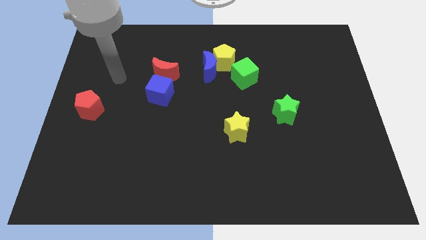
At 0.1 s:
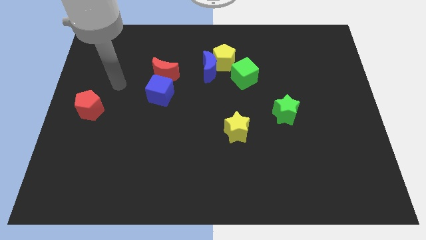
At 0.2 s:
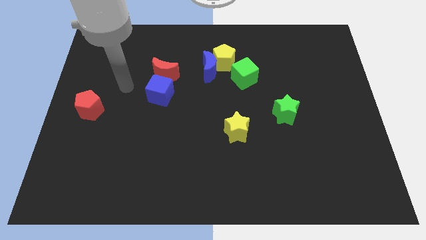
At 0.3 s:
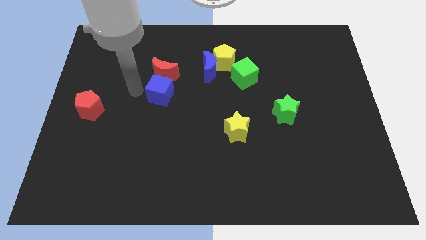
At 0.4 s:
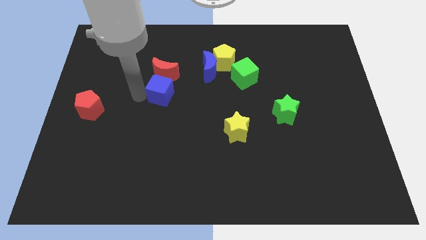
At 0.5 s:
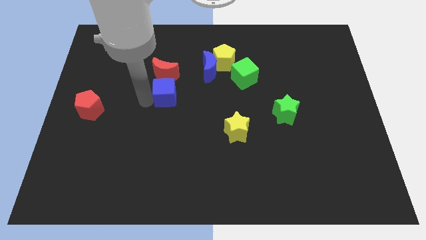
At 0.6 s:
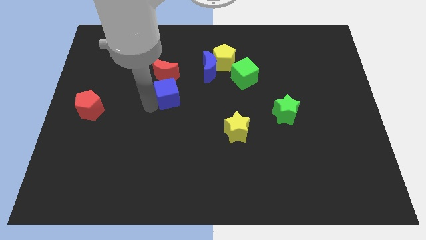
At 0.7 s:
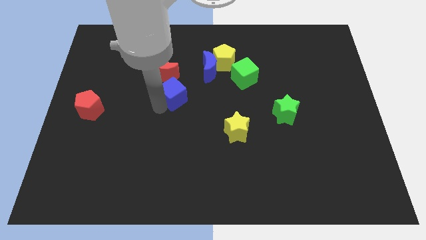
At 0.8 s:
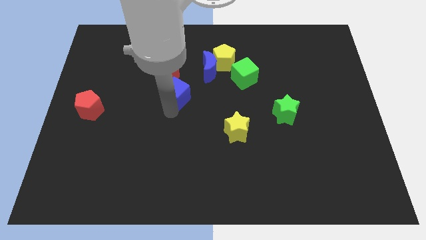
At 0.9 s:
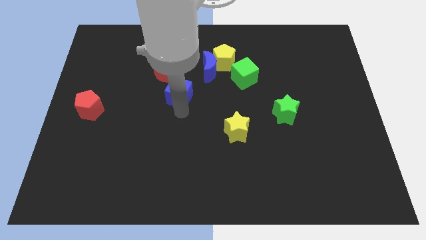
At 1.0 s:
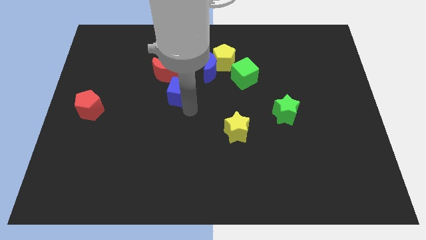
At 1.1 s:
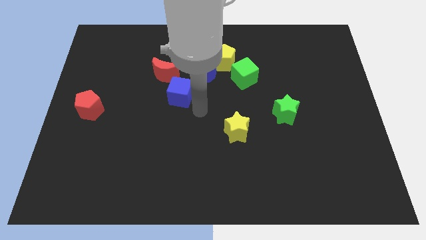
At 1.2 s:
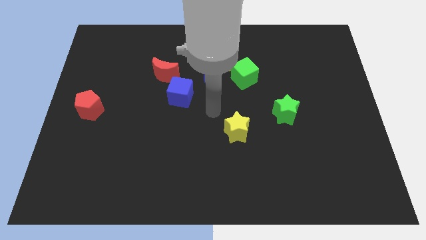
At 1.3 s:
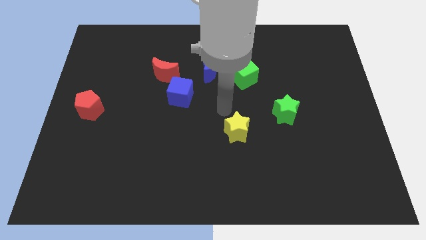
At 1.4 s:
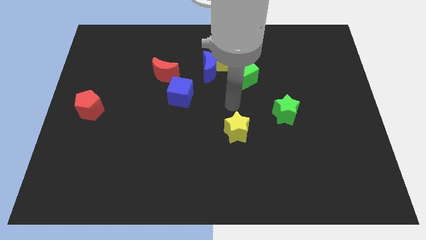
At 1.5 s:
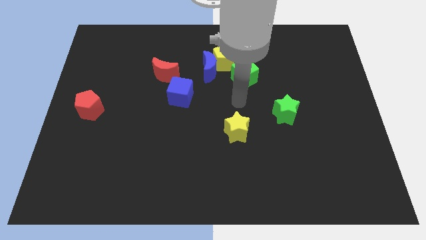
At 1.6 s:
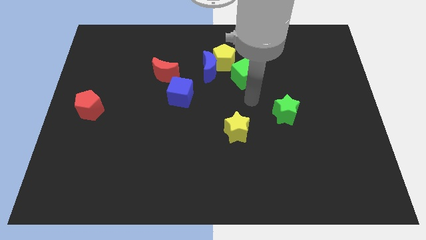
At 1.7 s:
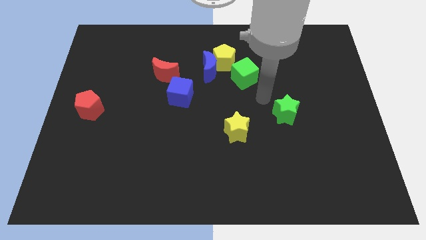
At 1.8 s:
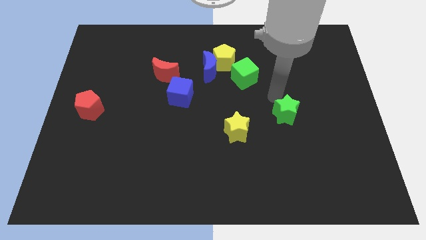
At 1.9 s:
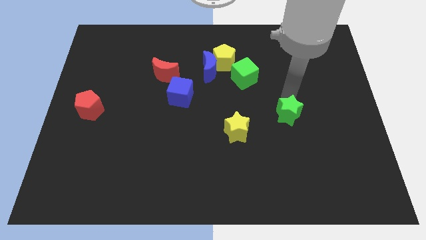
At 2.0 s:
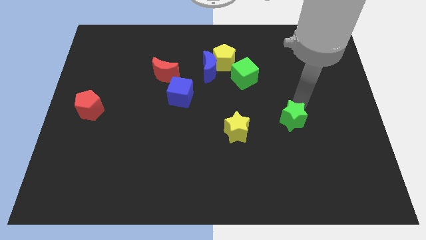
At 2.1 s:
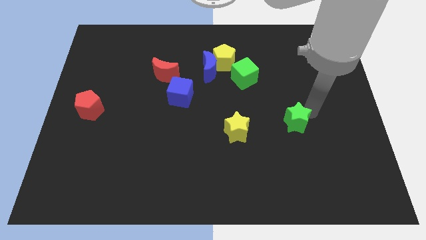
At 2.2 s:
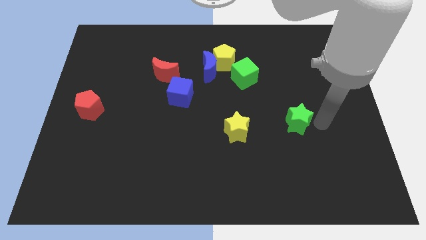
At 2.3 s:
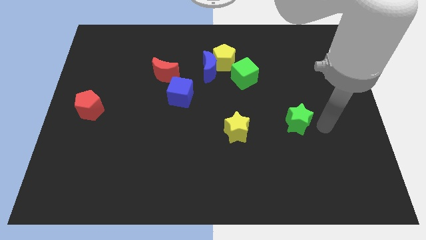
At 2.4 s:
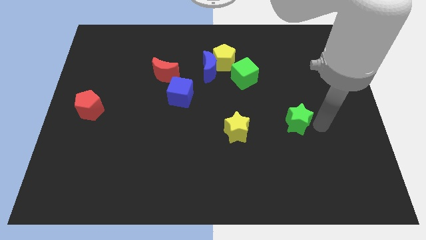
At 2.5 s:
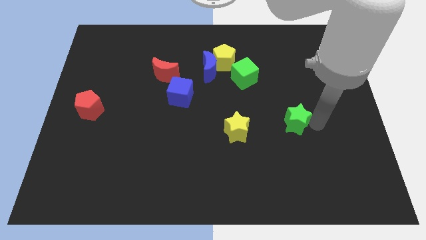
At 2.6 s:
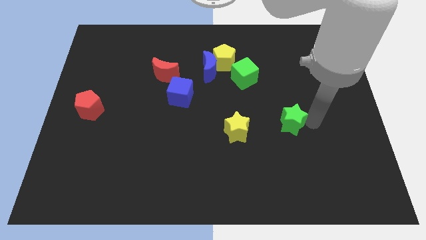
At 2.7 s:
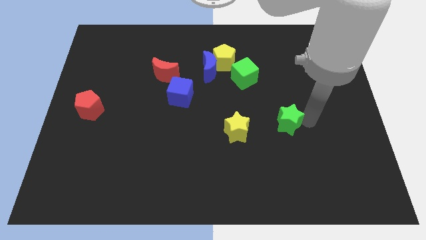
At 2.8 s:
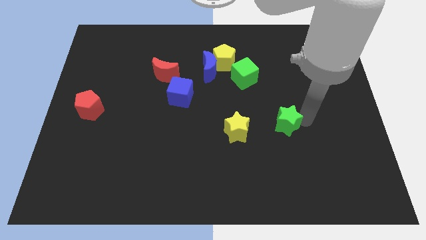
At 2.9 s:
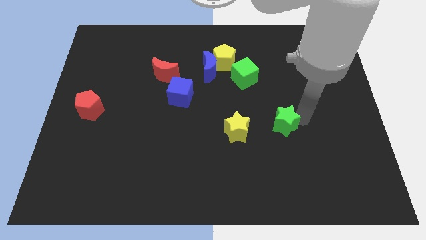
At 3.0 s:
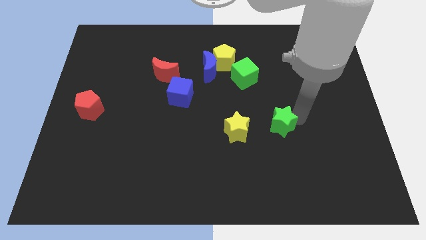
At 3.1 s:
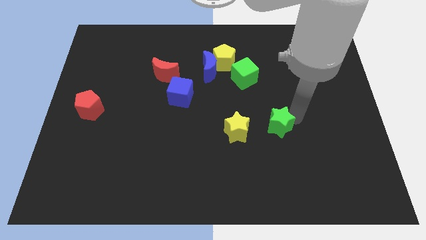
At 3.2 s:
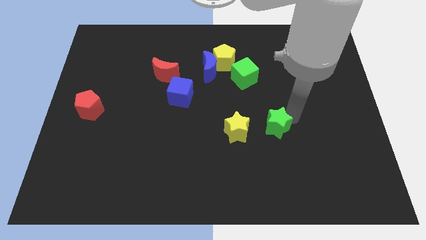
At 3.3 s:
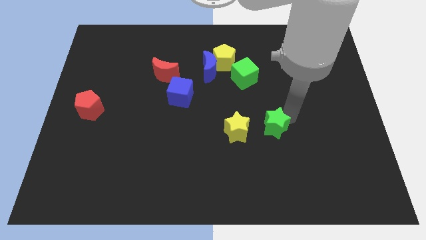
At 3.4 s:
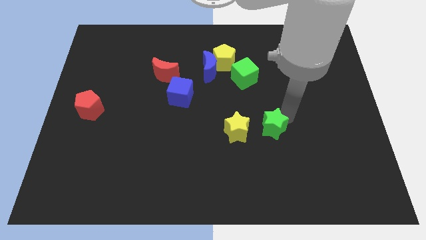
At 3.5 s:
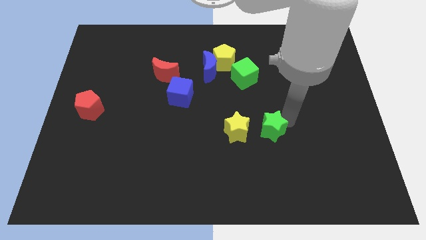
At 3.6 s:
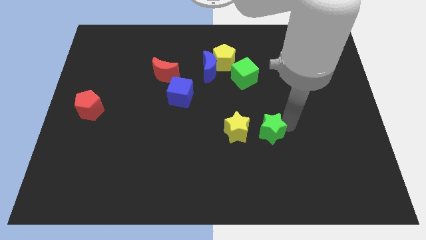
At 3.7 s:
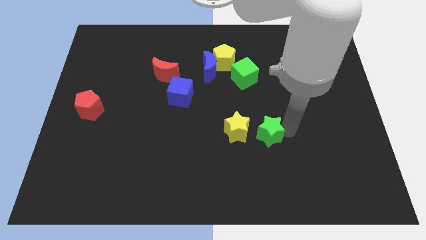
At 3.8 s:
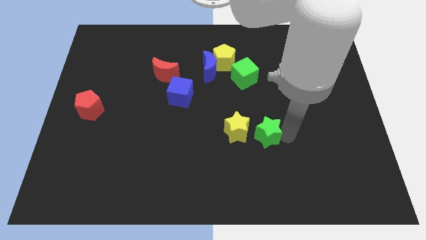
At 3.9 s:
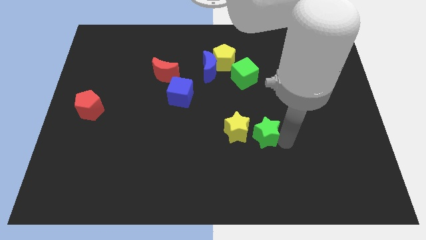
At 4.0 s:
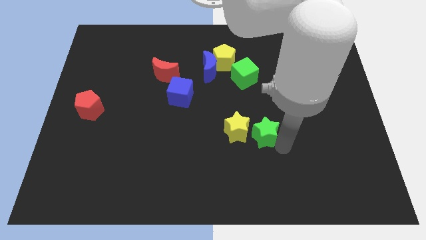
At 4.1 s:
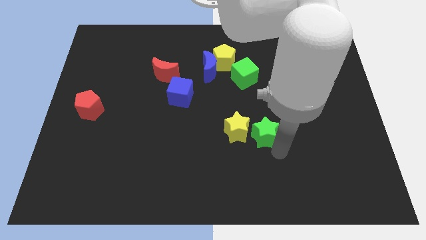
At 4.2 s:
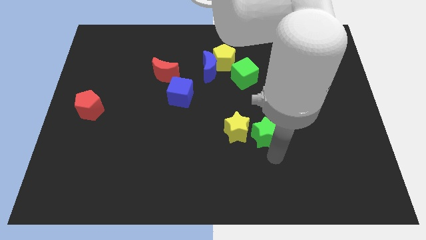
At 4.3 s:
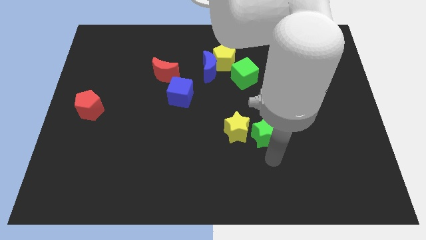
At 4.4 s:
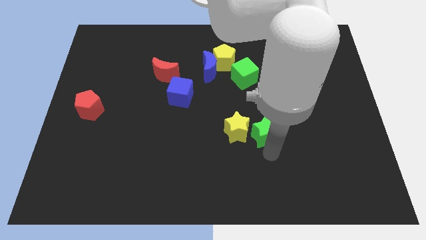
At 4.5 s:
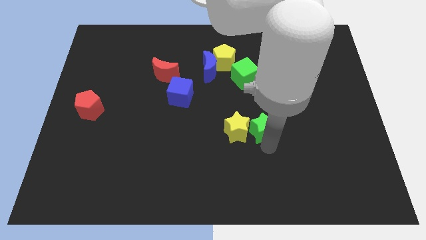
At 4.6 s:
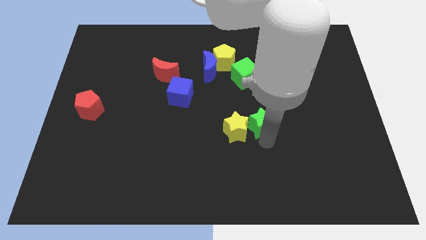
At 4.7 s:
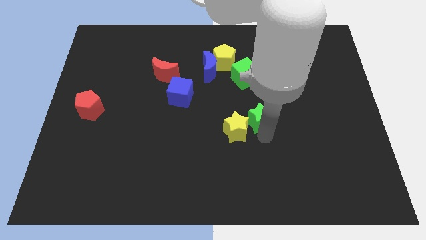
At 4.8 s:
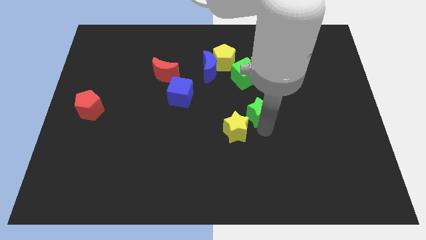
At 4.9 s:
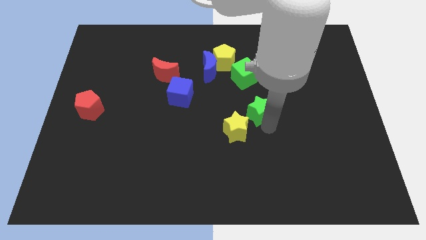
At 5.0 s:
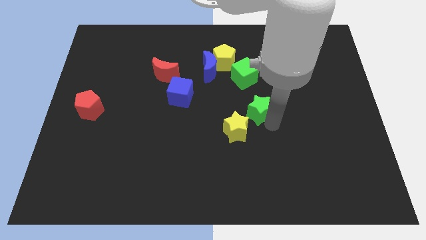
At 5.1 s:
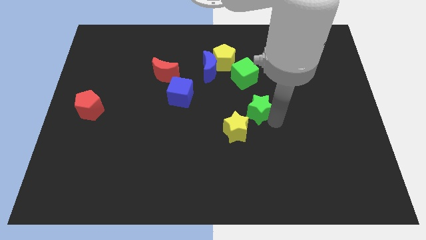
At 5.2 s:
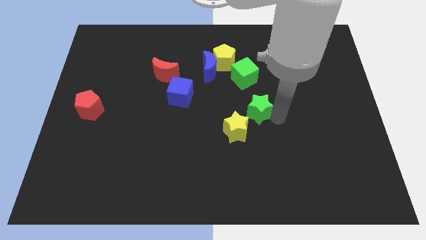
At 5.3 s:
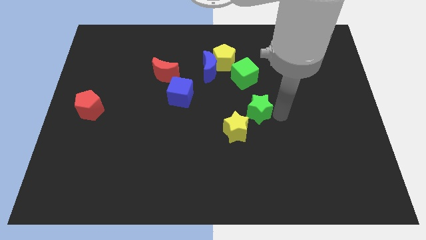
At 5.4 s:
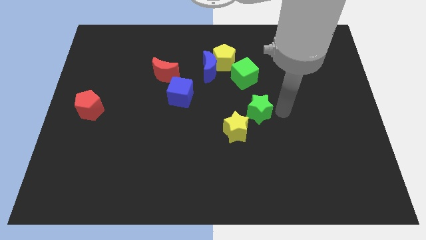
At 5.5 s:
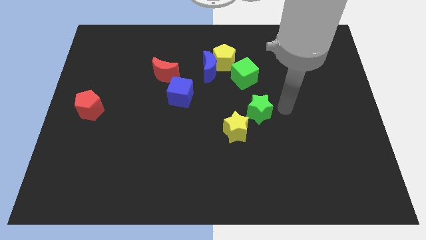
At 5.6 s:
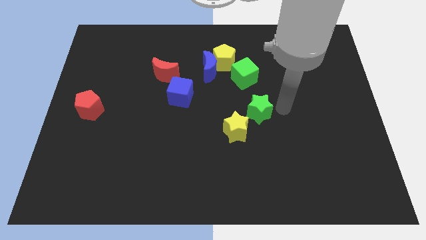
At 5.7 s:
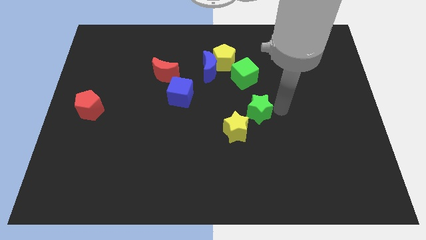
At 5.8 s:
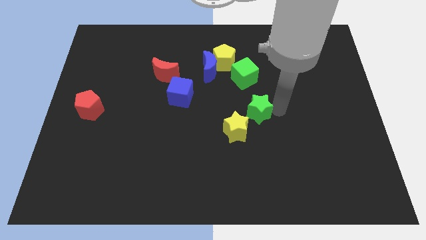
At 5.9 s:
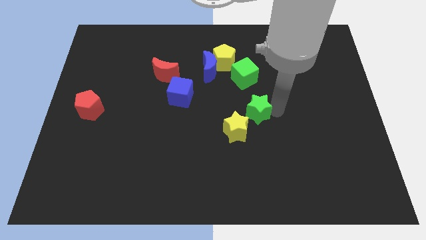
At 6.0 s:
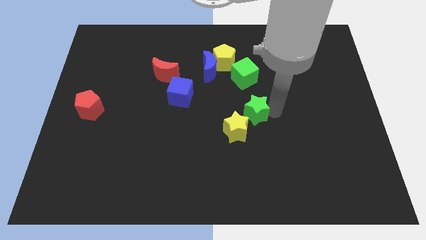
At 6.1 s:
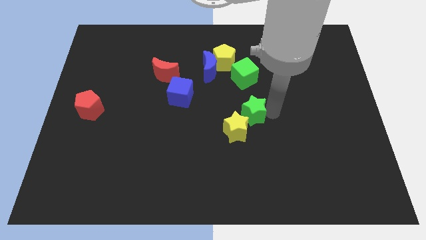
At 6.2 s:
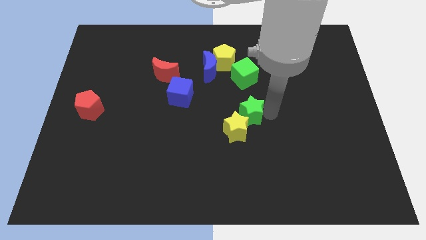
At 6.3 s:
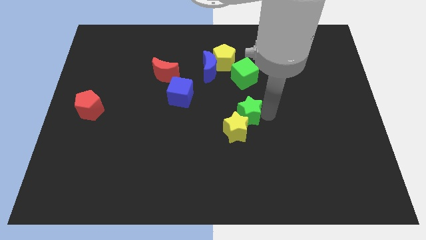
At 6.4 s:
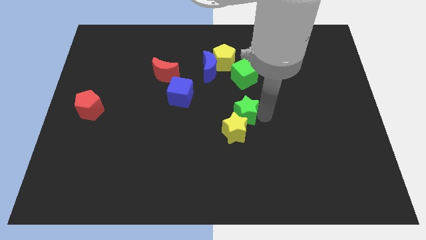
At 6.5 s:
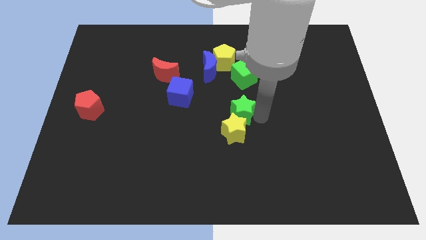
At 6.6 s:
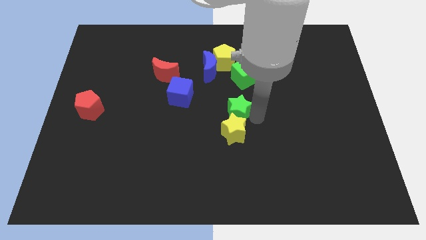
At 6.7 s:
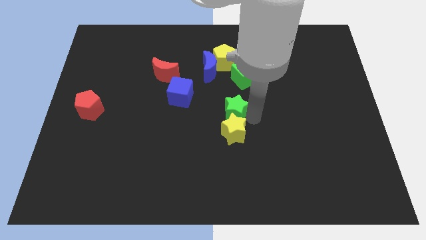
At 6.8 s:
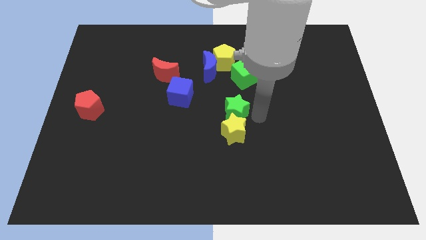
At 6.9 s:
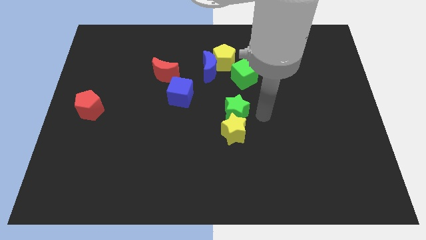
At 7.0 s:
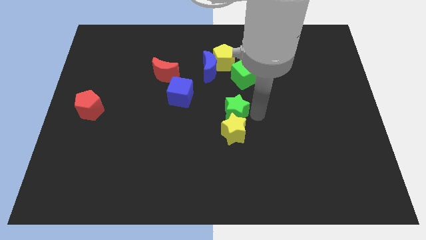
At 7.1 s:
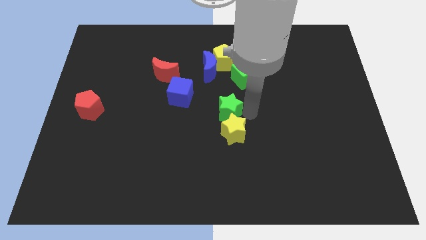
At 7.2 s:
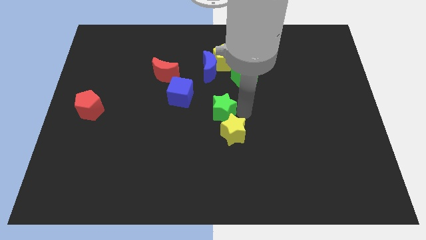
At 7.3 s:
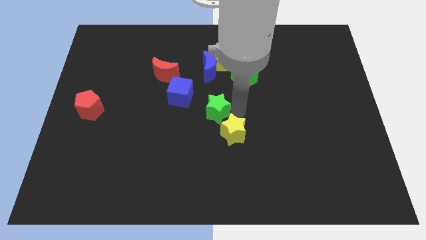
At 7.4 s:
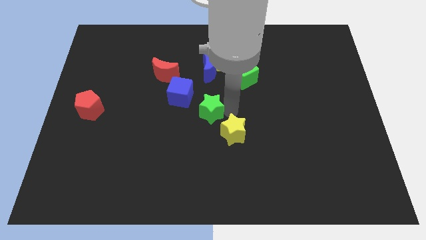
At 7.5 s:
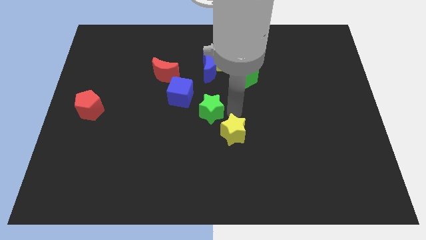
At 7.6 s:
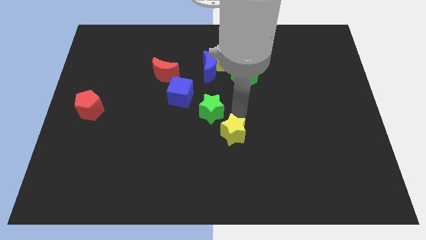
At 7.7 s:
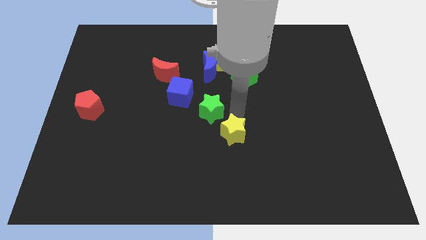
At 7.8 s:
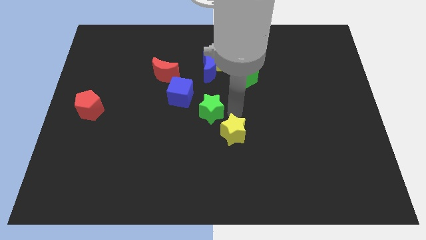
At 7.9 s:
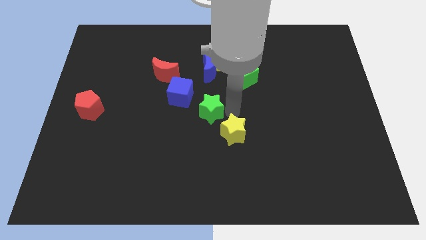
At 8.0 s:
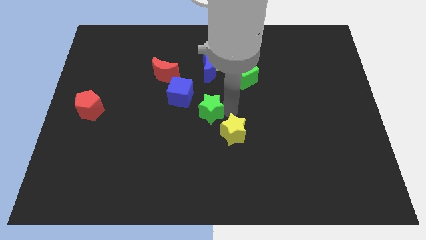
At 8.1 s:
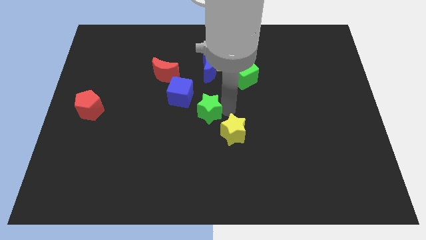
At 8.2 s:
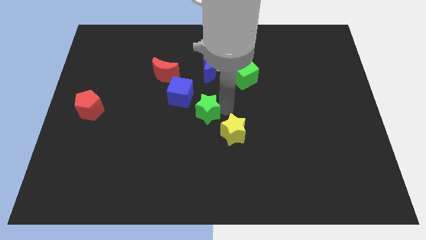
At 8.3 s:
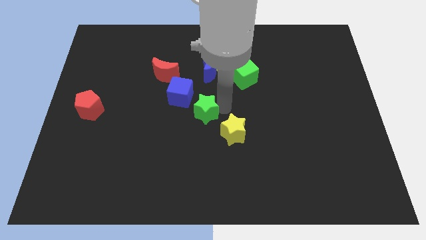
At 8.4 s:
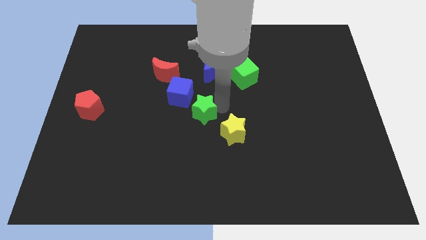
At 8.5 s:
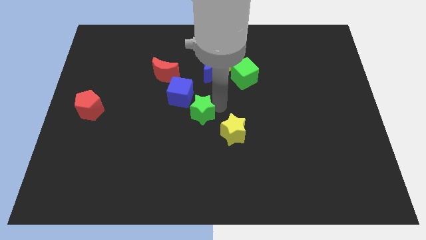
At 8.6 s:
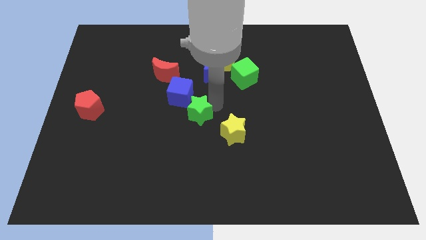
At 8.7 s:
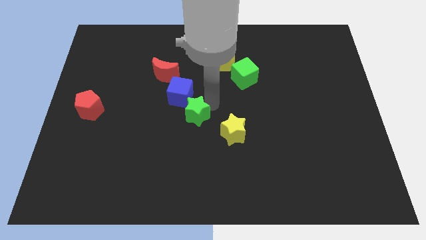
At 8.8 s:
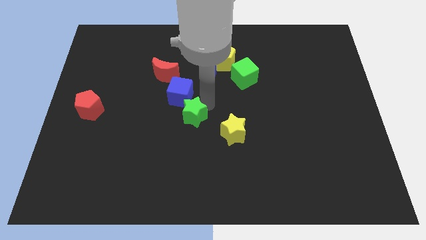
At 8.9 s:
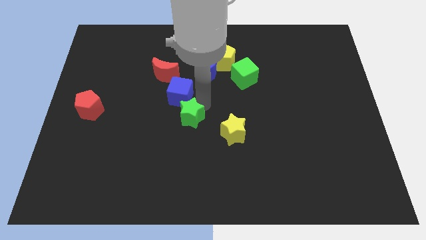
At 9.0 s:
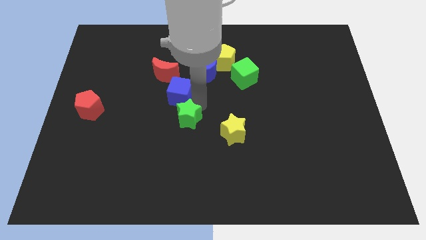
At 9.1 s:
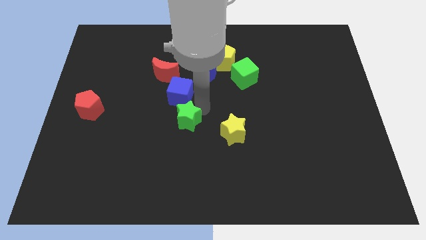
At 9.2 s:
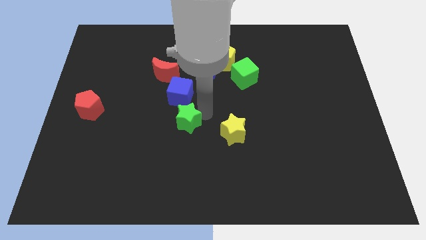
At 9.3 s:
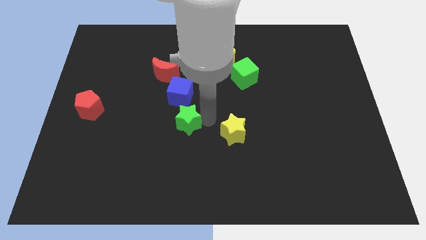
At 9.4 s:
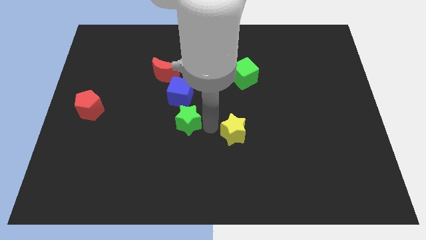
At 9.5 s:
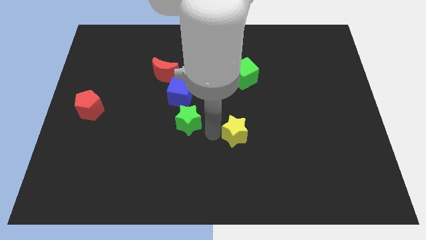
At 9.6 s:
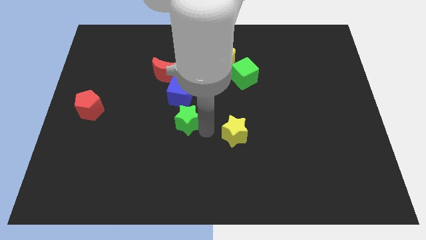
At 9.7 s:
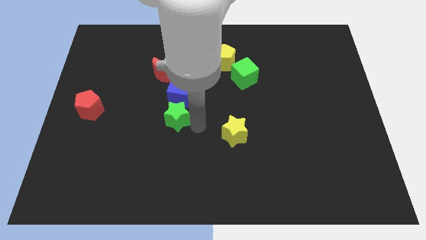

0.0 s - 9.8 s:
push the green star below the red moon
